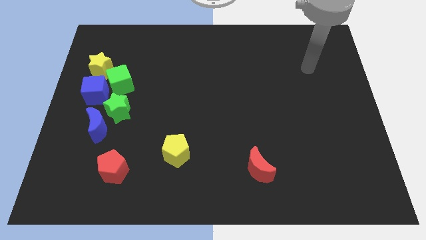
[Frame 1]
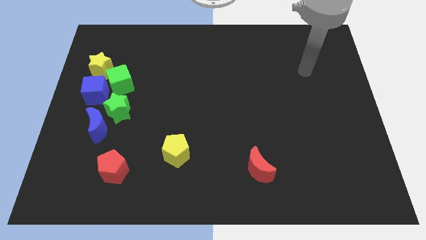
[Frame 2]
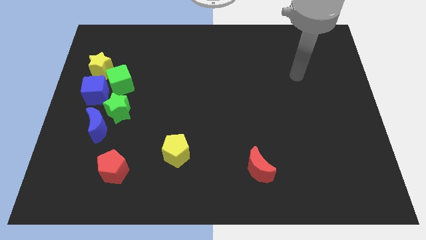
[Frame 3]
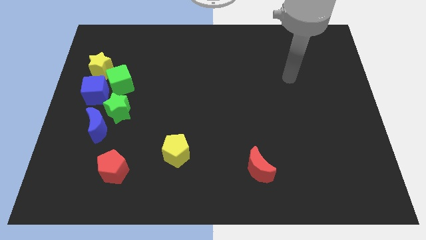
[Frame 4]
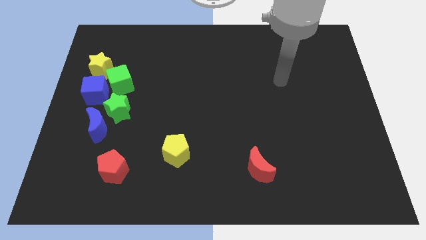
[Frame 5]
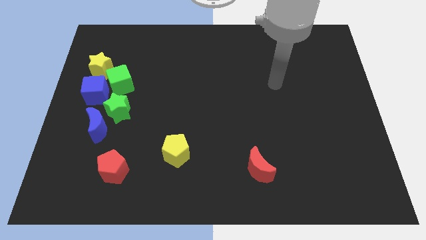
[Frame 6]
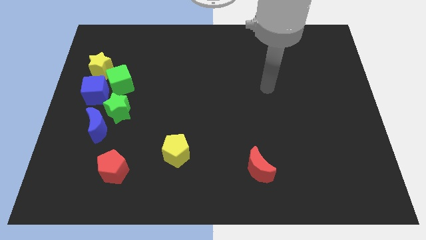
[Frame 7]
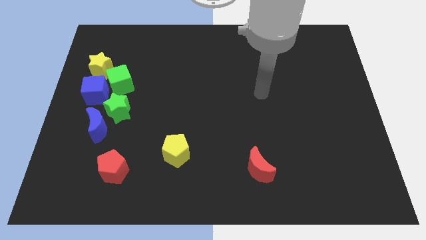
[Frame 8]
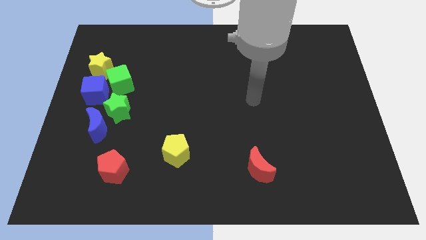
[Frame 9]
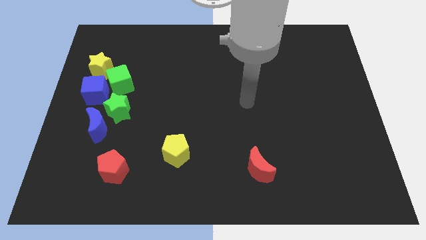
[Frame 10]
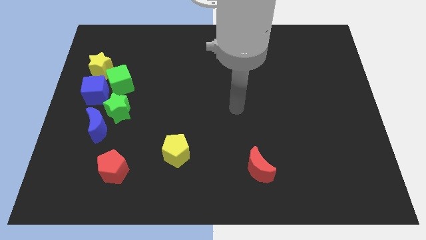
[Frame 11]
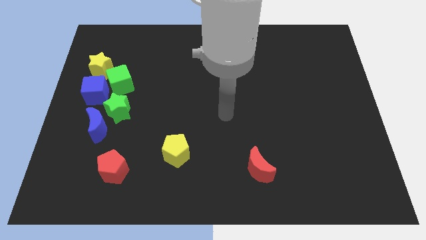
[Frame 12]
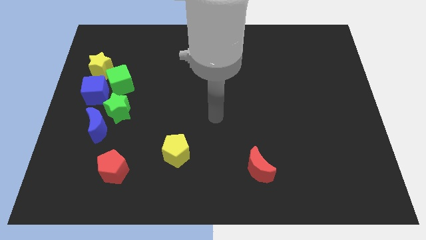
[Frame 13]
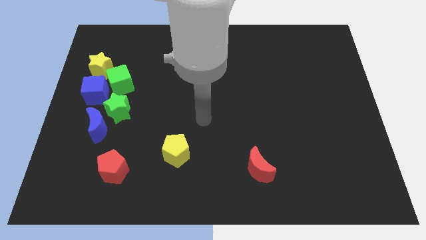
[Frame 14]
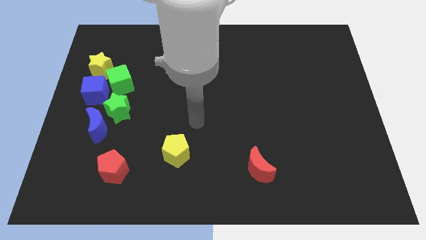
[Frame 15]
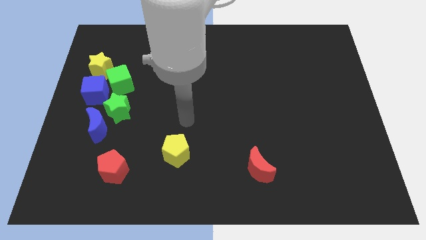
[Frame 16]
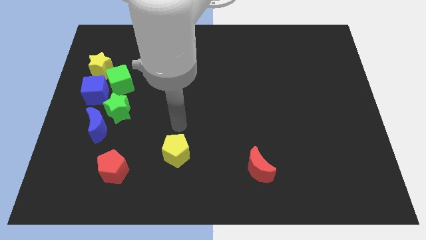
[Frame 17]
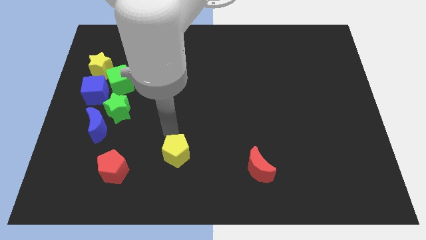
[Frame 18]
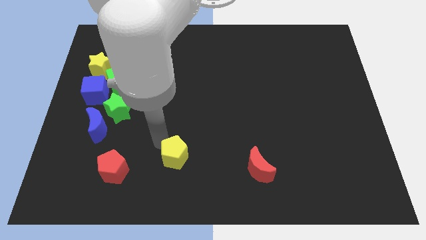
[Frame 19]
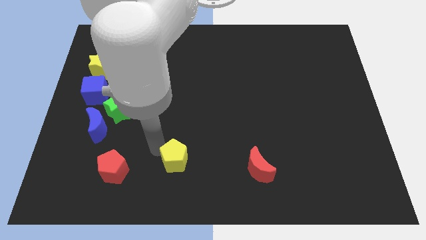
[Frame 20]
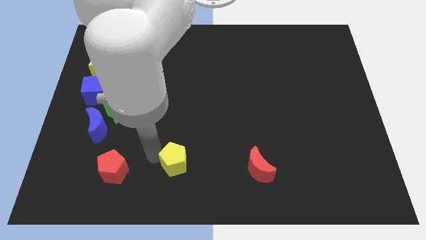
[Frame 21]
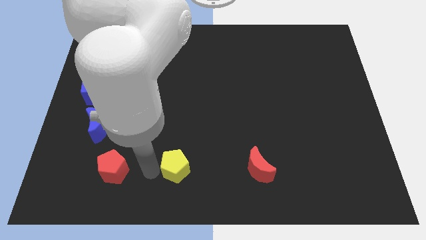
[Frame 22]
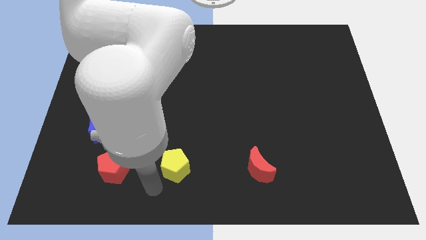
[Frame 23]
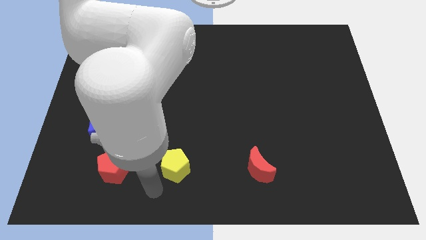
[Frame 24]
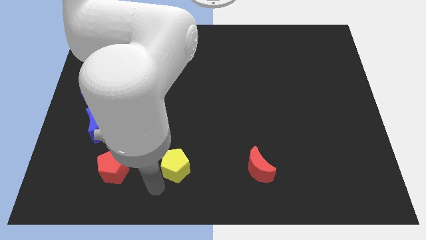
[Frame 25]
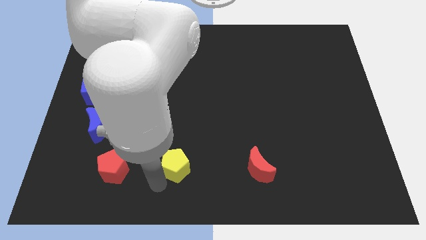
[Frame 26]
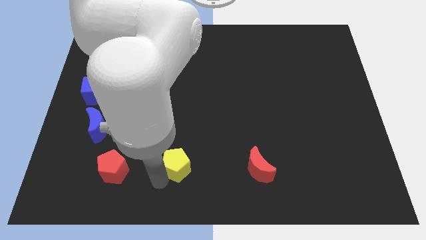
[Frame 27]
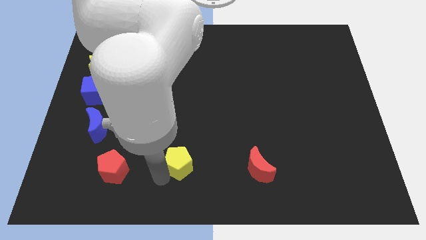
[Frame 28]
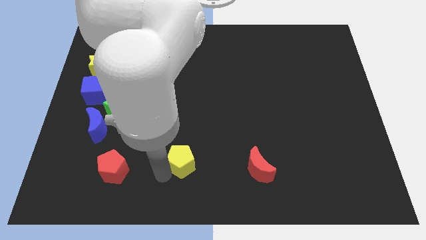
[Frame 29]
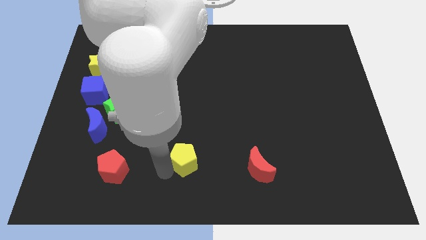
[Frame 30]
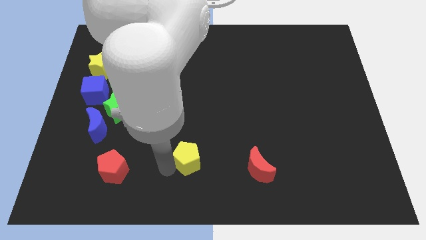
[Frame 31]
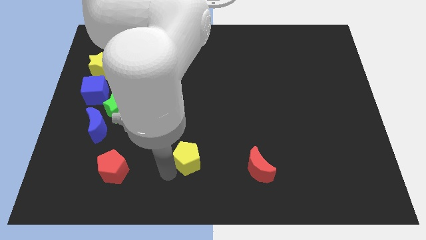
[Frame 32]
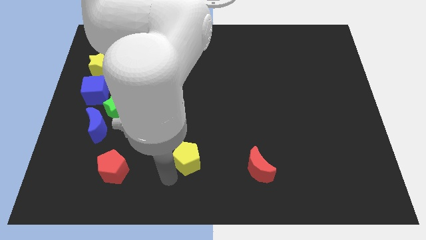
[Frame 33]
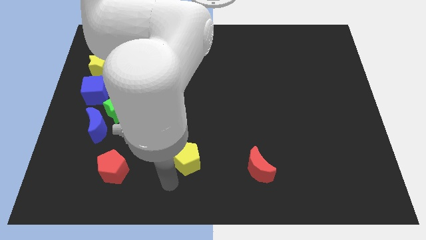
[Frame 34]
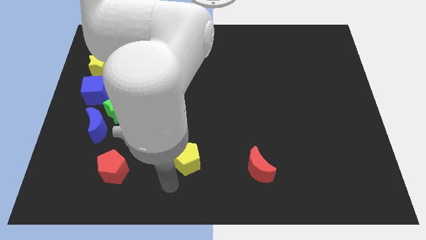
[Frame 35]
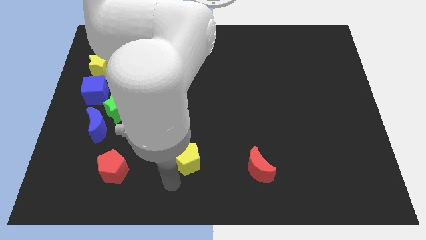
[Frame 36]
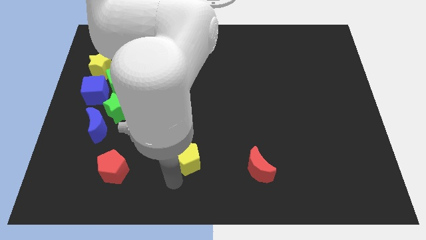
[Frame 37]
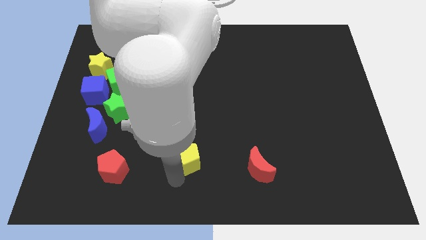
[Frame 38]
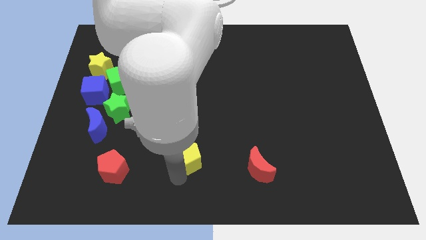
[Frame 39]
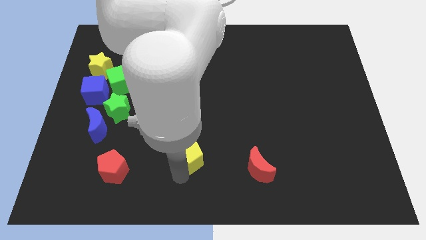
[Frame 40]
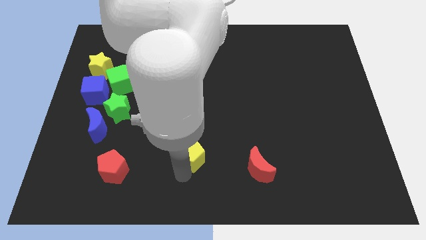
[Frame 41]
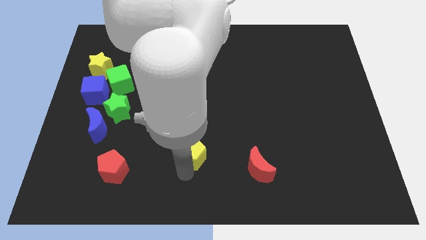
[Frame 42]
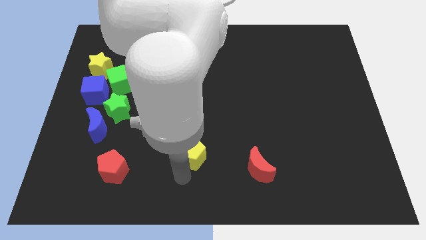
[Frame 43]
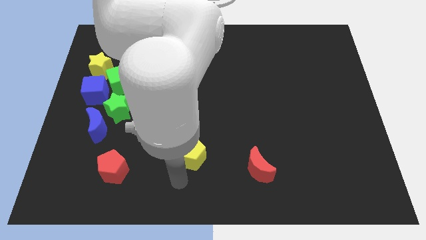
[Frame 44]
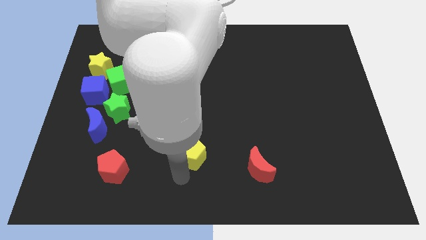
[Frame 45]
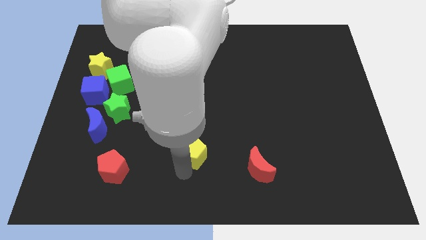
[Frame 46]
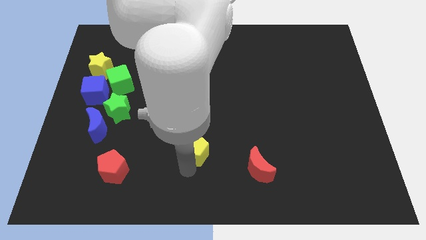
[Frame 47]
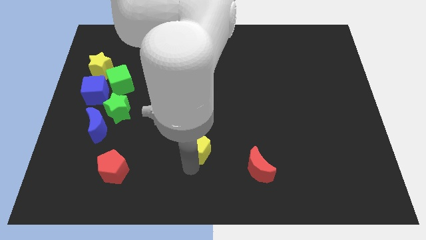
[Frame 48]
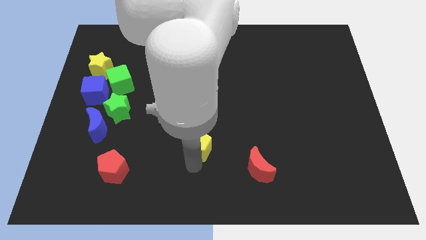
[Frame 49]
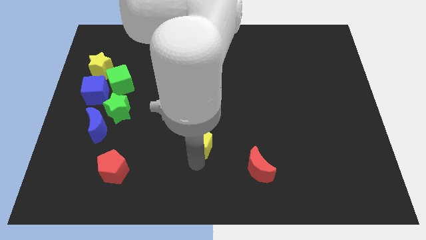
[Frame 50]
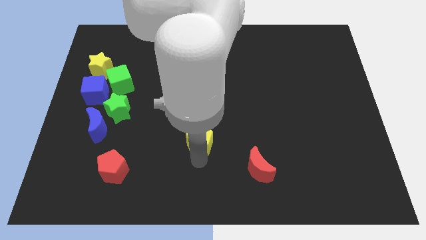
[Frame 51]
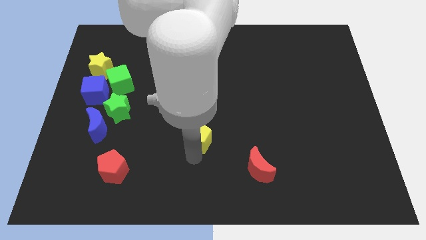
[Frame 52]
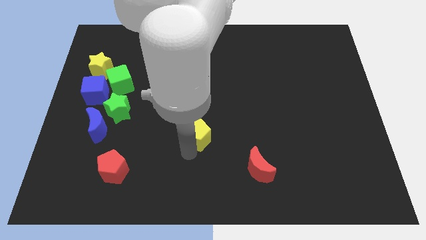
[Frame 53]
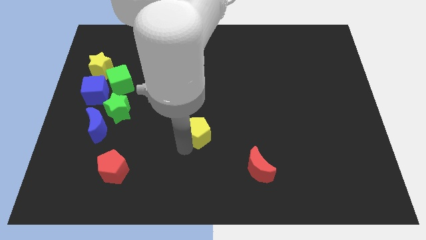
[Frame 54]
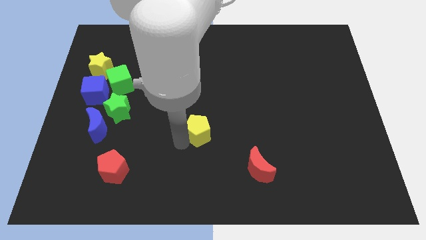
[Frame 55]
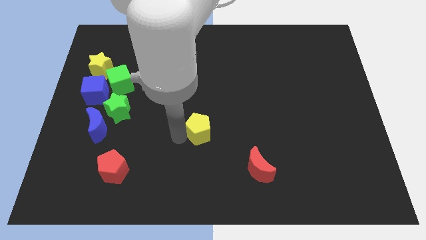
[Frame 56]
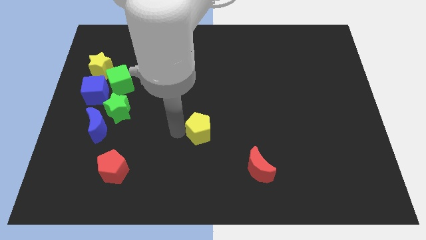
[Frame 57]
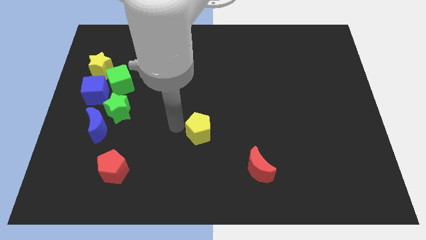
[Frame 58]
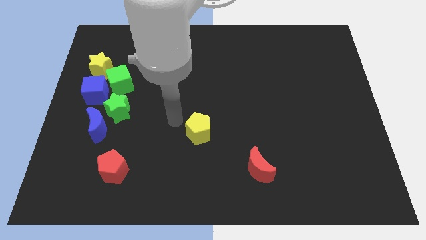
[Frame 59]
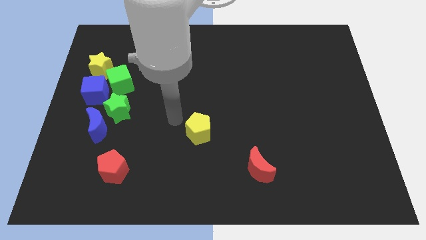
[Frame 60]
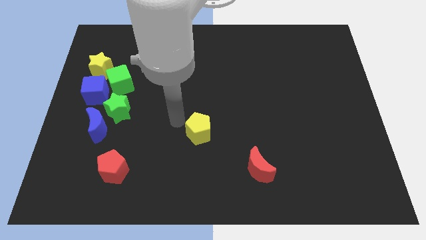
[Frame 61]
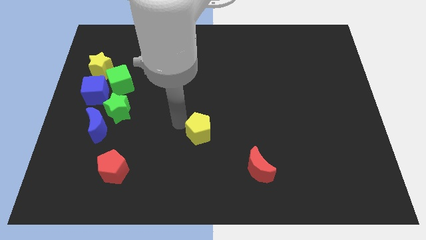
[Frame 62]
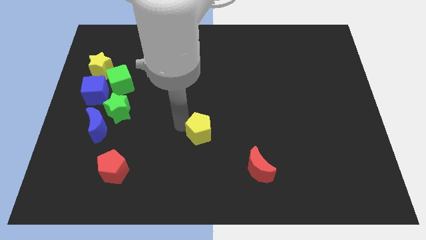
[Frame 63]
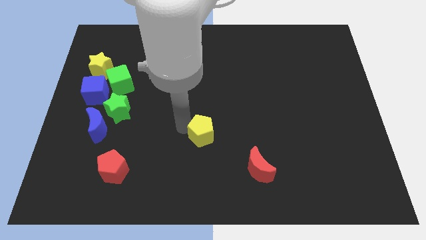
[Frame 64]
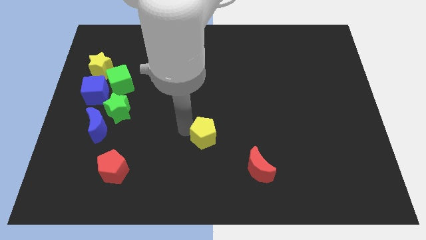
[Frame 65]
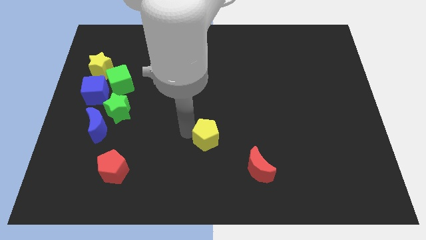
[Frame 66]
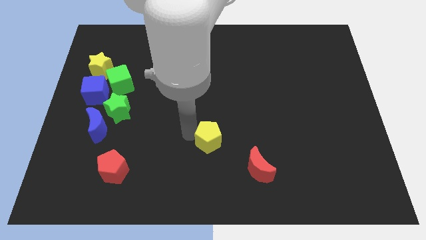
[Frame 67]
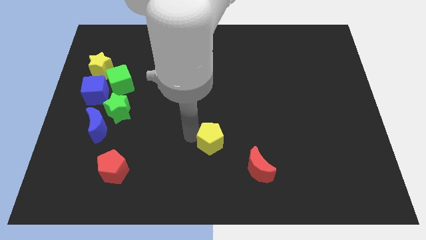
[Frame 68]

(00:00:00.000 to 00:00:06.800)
push the yellow pentagon to the right a little bit

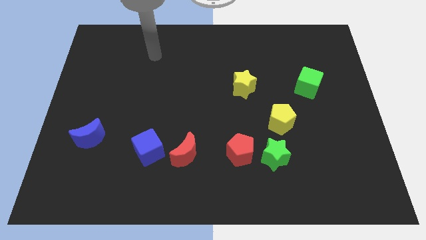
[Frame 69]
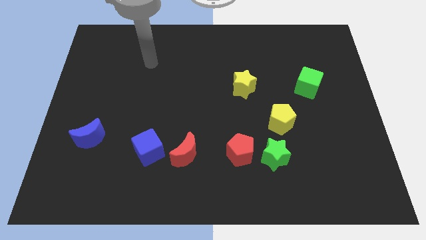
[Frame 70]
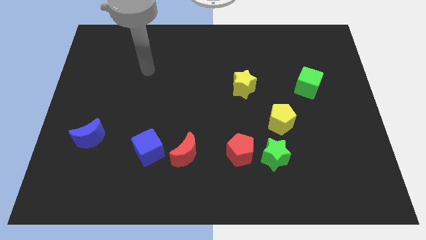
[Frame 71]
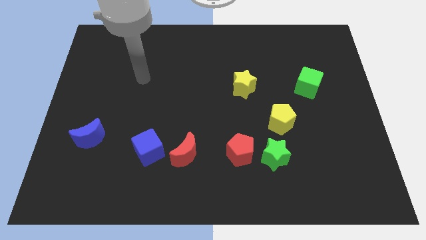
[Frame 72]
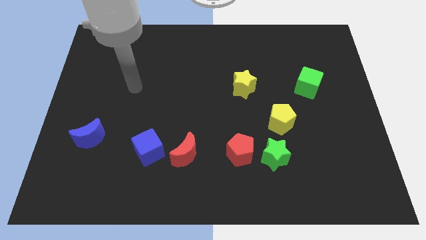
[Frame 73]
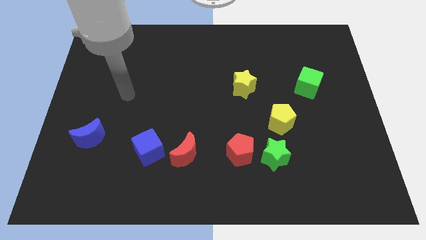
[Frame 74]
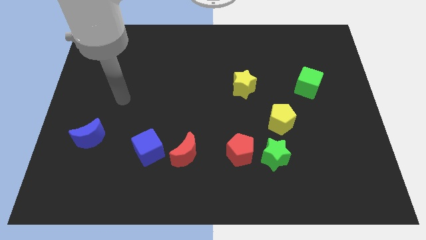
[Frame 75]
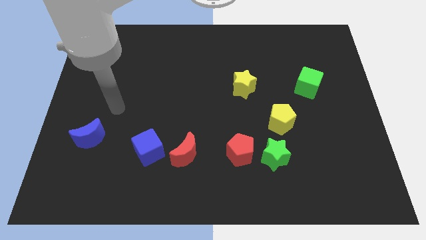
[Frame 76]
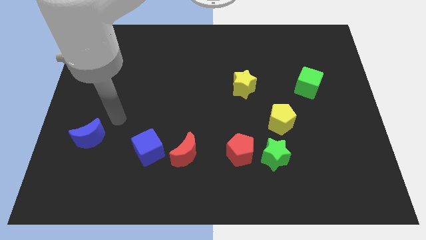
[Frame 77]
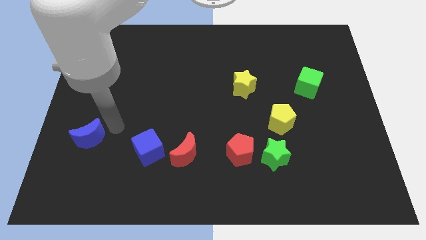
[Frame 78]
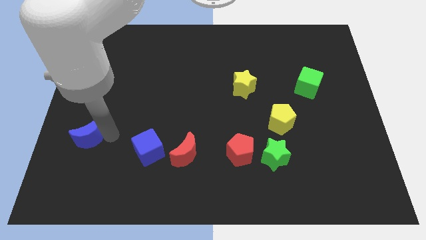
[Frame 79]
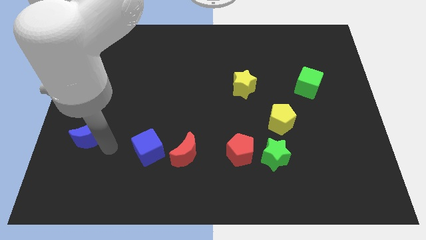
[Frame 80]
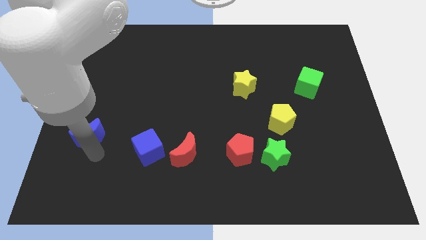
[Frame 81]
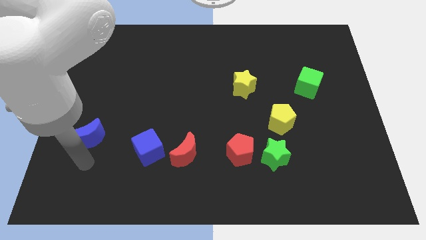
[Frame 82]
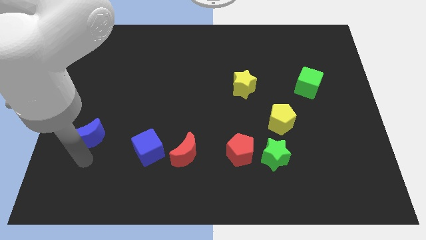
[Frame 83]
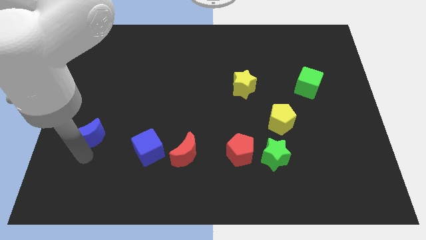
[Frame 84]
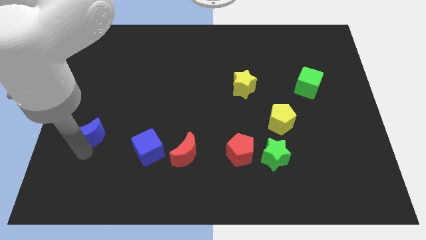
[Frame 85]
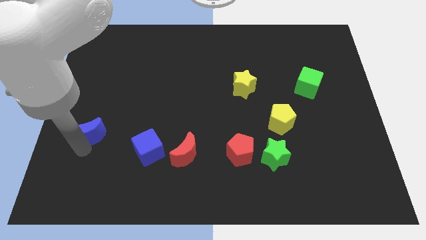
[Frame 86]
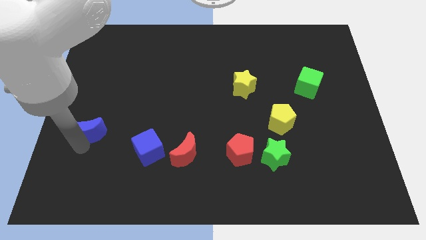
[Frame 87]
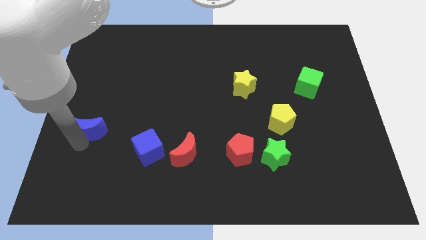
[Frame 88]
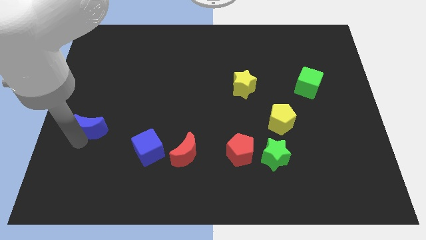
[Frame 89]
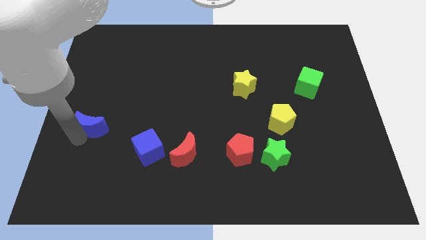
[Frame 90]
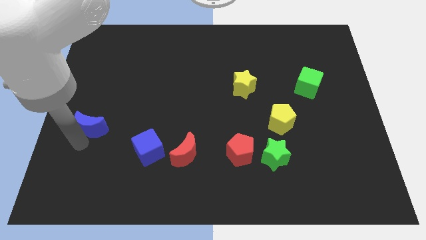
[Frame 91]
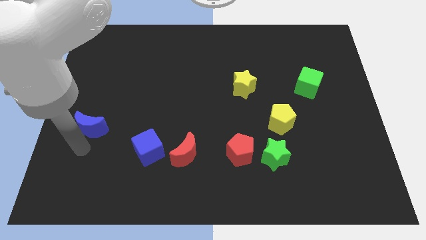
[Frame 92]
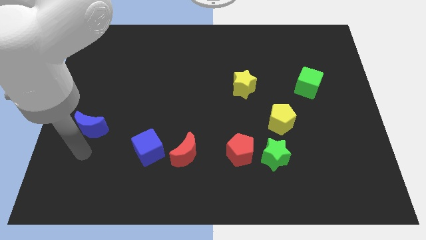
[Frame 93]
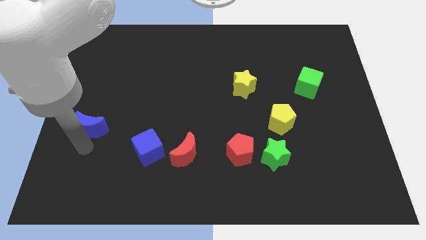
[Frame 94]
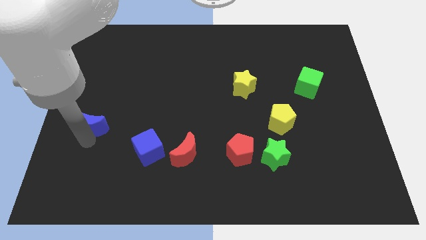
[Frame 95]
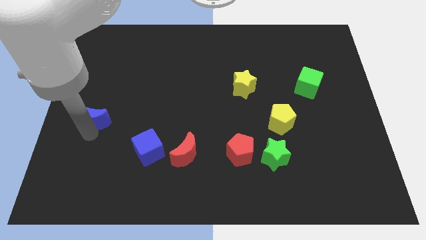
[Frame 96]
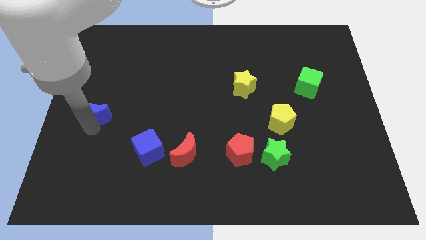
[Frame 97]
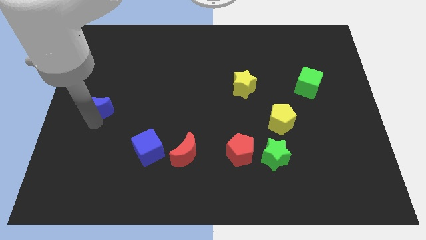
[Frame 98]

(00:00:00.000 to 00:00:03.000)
slide the blue moon up somewhat
